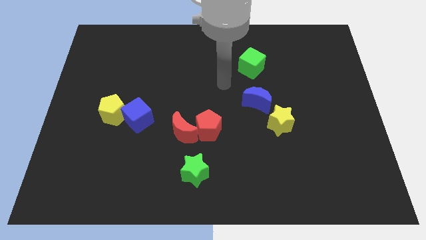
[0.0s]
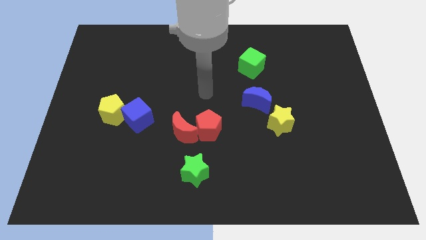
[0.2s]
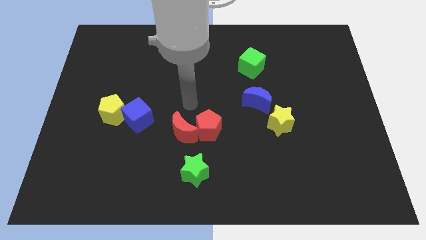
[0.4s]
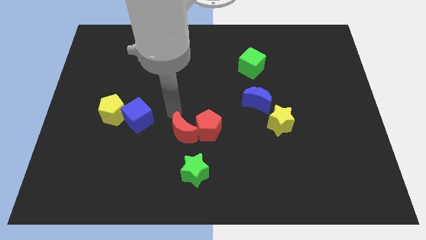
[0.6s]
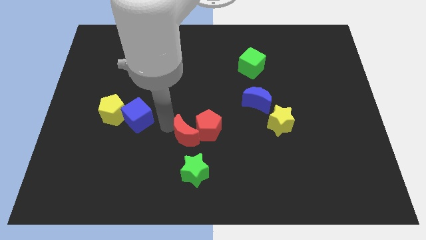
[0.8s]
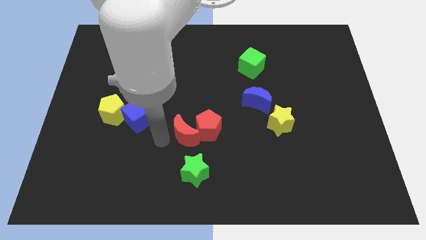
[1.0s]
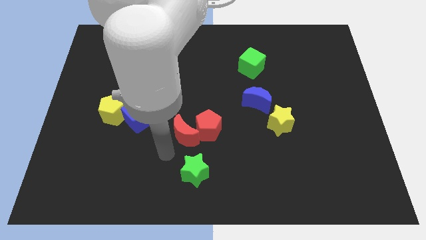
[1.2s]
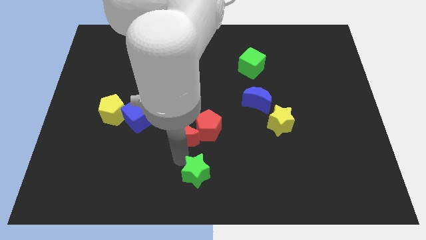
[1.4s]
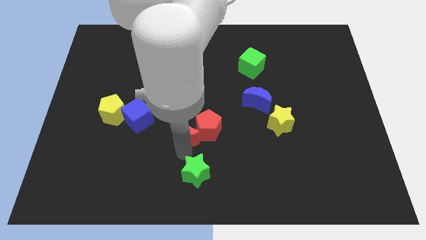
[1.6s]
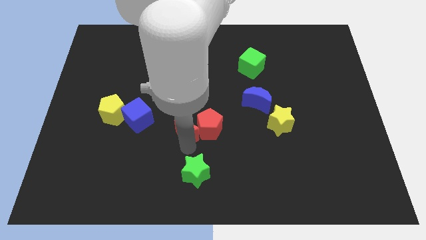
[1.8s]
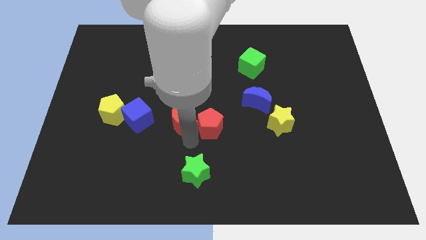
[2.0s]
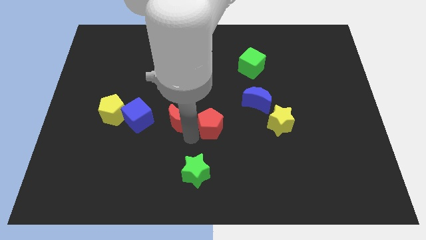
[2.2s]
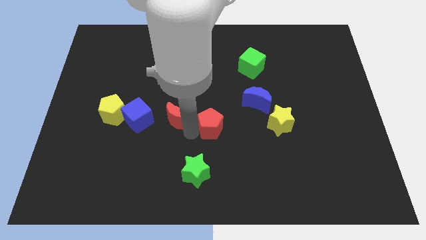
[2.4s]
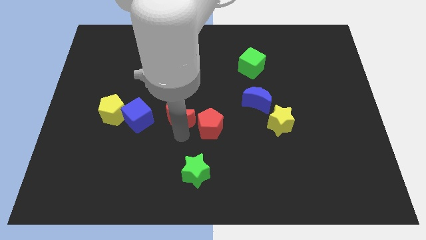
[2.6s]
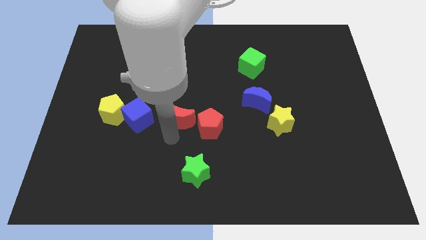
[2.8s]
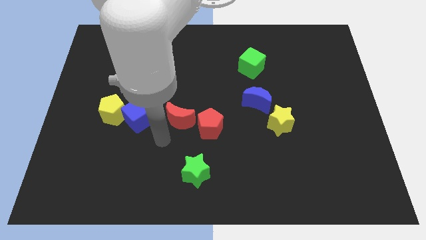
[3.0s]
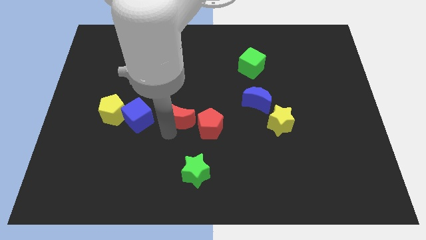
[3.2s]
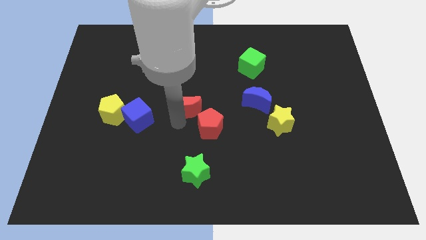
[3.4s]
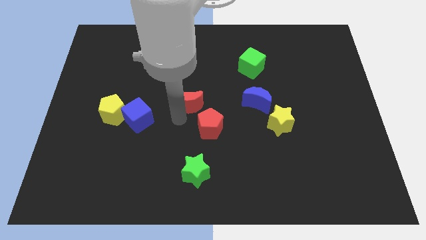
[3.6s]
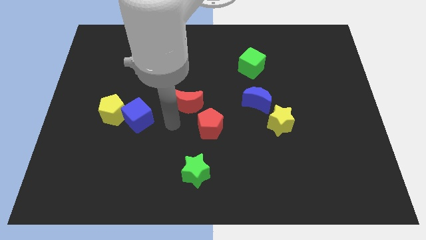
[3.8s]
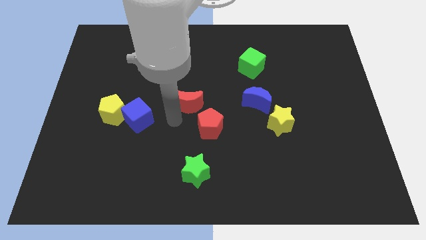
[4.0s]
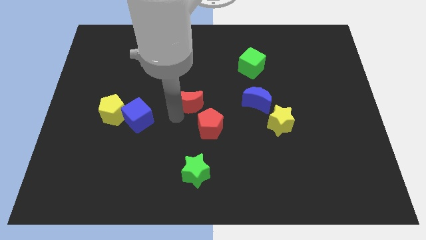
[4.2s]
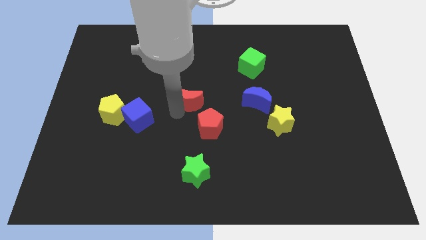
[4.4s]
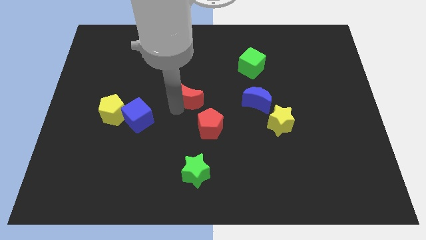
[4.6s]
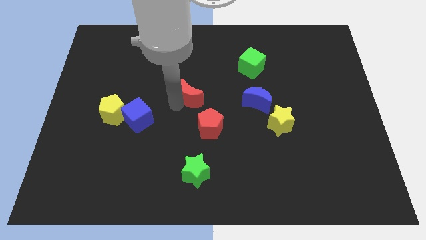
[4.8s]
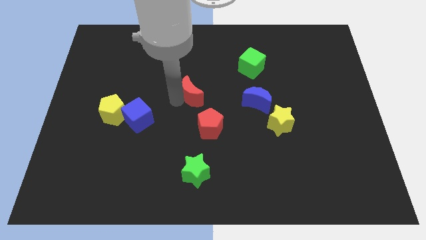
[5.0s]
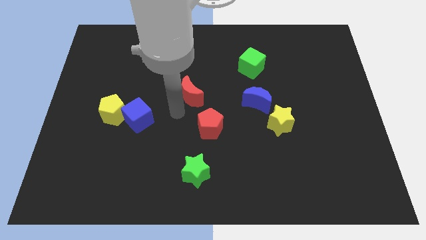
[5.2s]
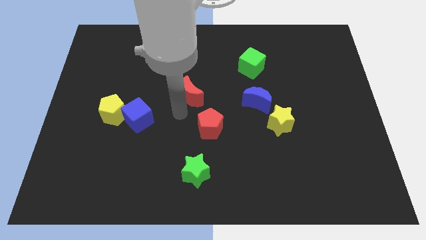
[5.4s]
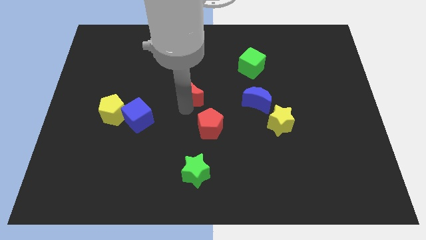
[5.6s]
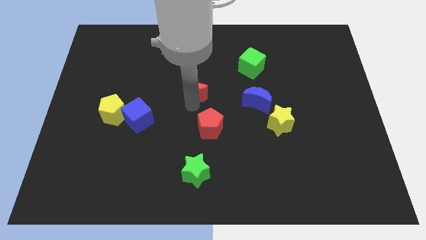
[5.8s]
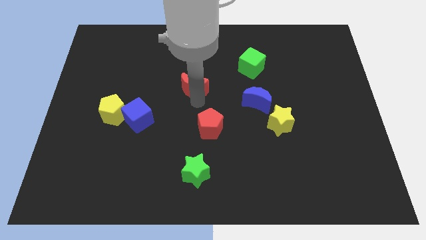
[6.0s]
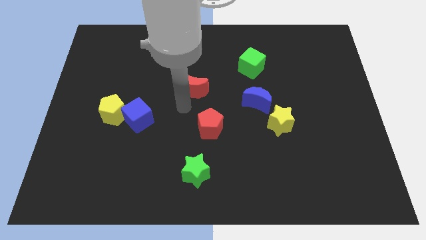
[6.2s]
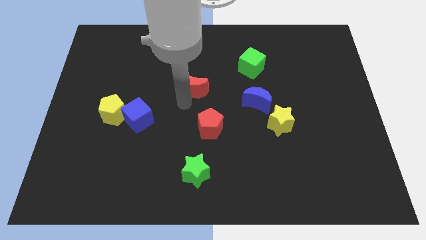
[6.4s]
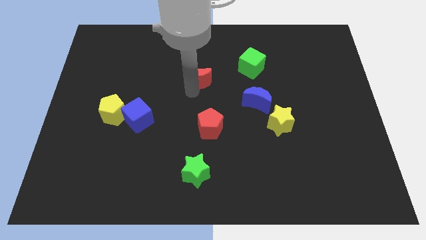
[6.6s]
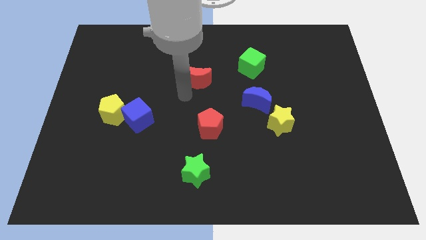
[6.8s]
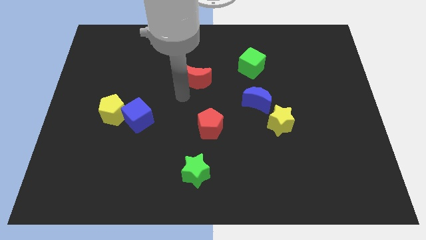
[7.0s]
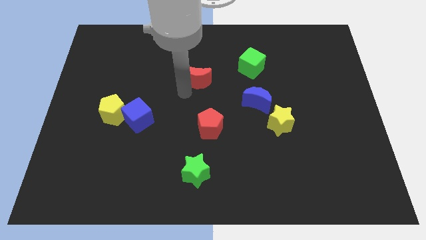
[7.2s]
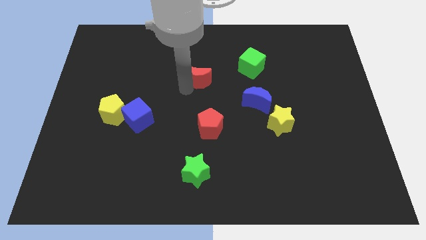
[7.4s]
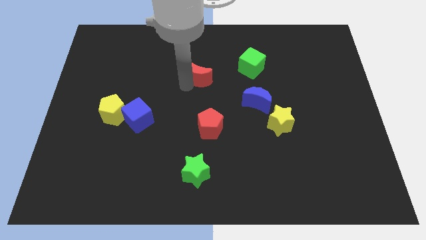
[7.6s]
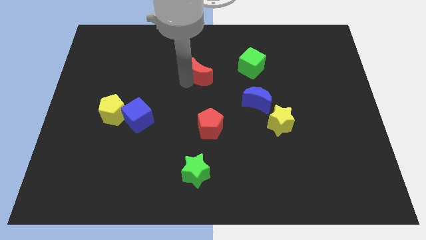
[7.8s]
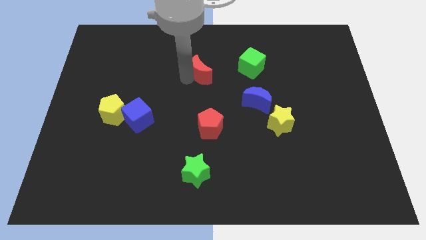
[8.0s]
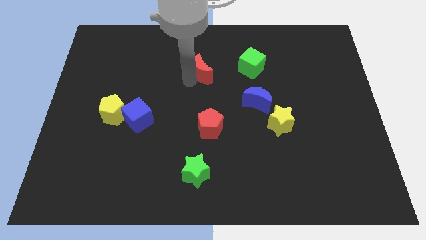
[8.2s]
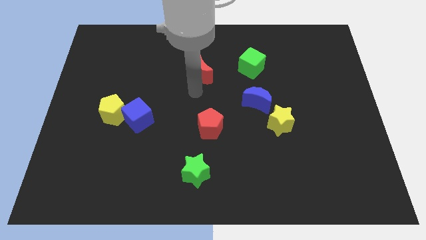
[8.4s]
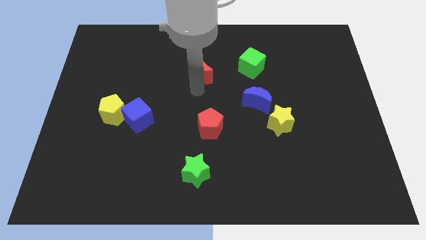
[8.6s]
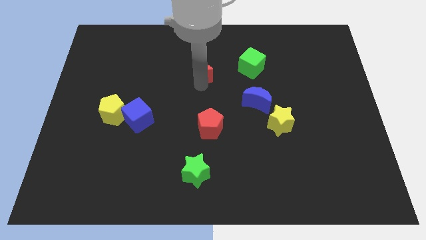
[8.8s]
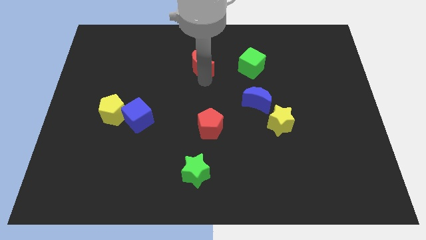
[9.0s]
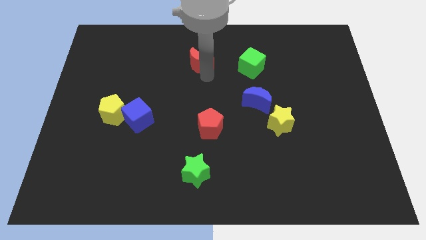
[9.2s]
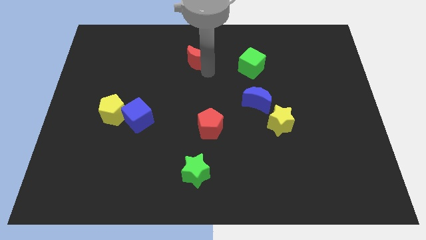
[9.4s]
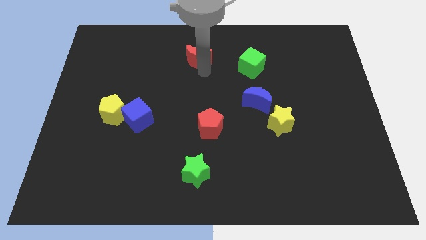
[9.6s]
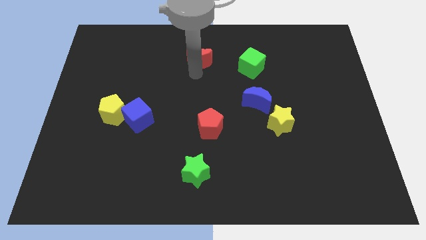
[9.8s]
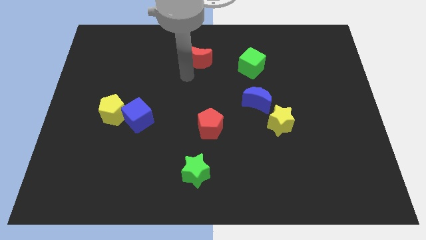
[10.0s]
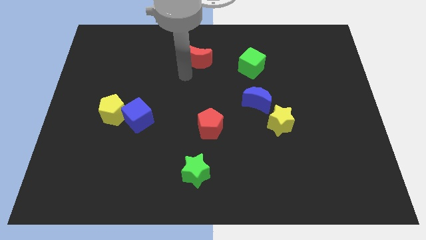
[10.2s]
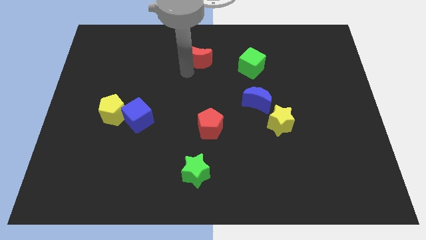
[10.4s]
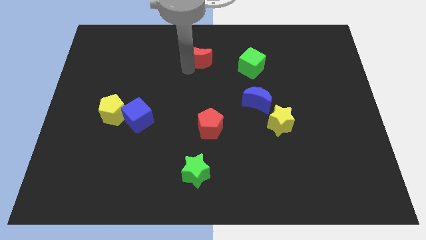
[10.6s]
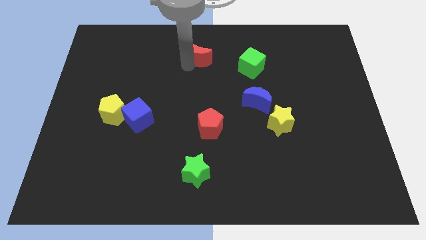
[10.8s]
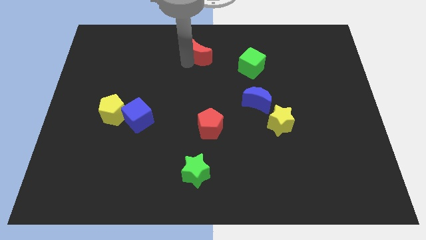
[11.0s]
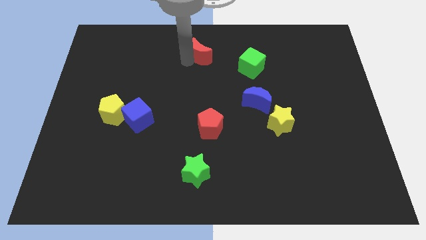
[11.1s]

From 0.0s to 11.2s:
slide the red moon to the towards your base

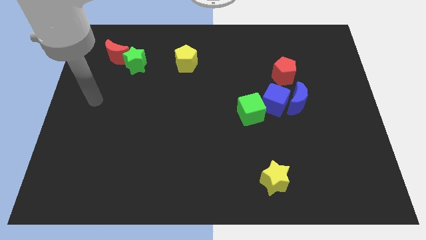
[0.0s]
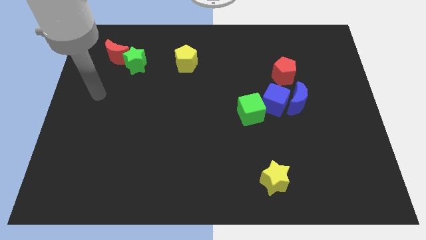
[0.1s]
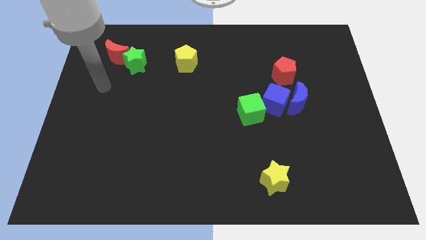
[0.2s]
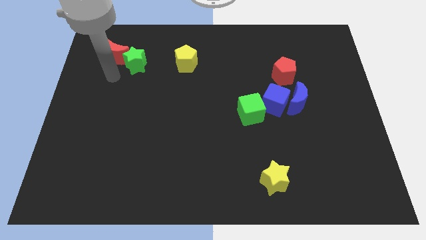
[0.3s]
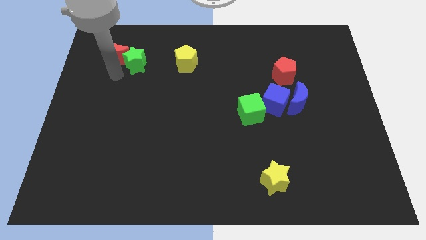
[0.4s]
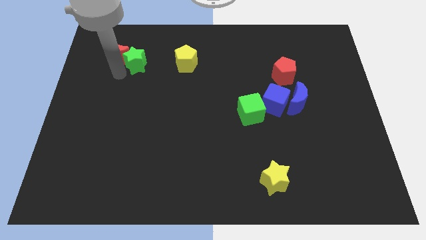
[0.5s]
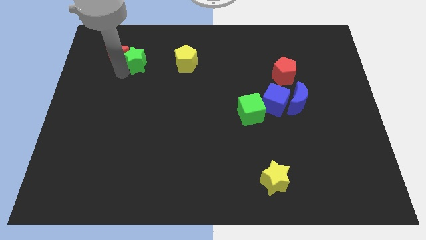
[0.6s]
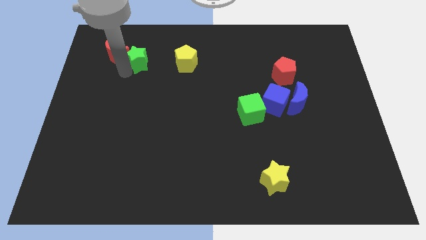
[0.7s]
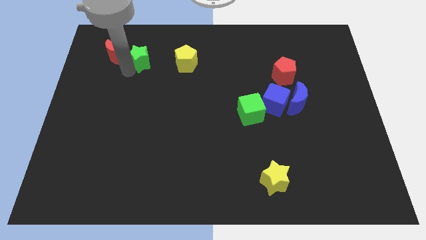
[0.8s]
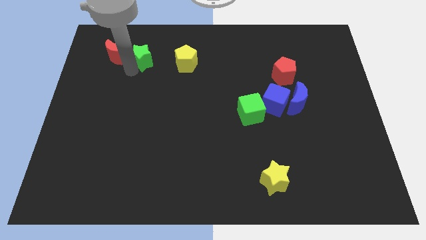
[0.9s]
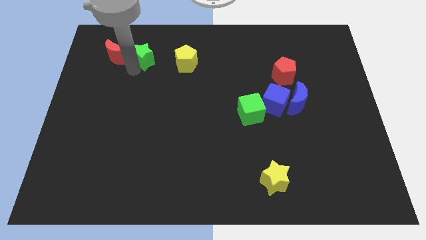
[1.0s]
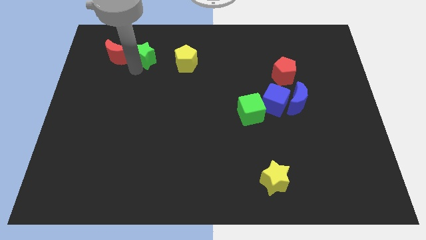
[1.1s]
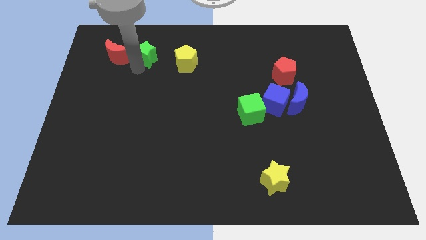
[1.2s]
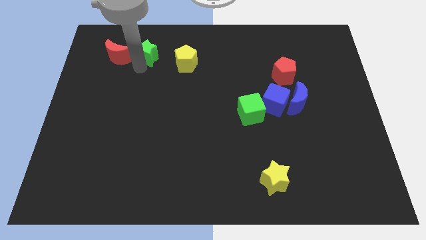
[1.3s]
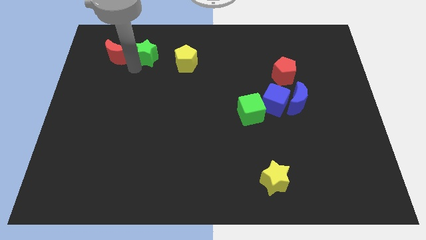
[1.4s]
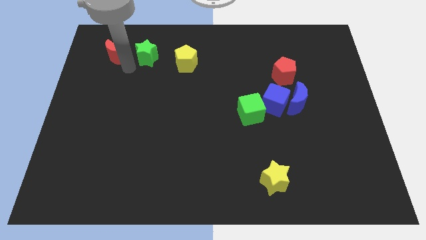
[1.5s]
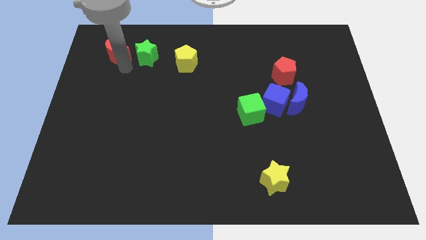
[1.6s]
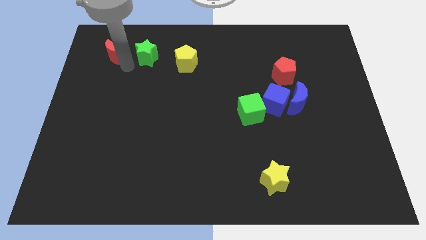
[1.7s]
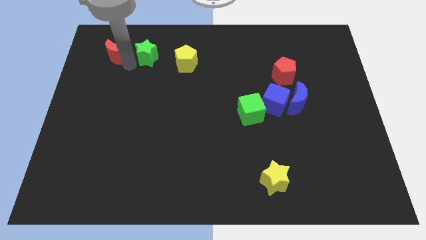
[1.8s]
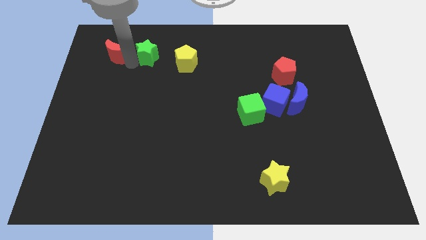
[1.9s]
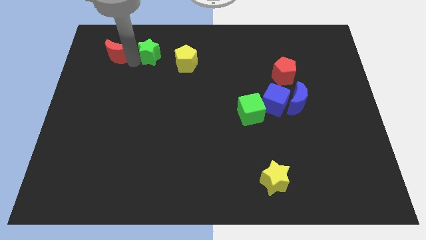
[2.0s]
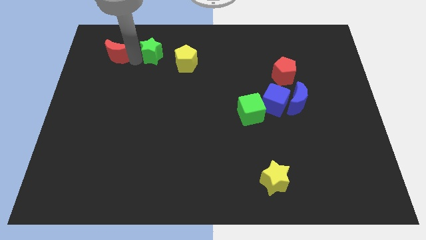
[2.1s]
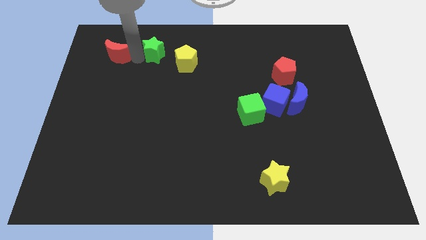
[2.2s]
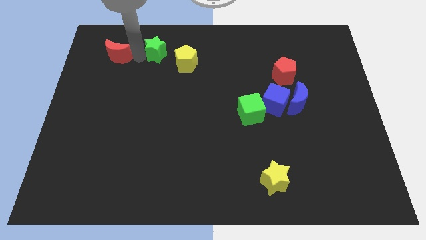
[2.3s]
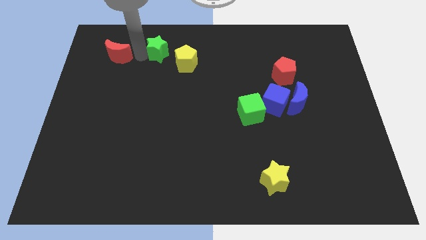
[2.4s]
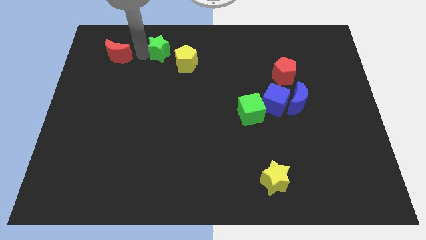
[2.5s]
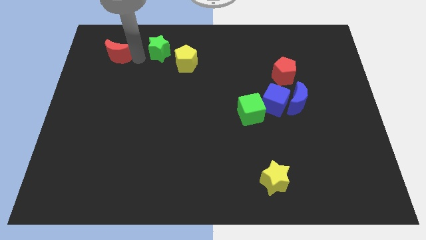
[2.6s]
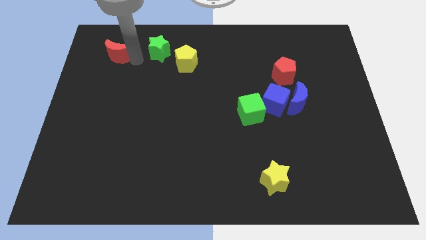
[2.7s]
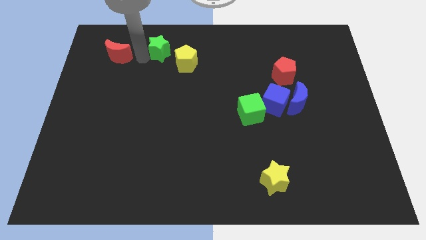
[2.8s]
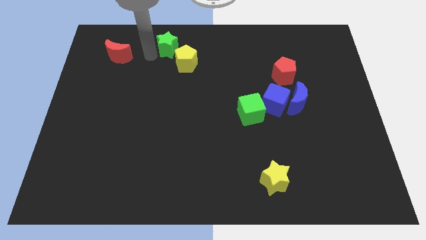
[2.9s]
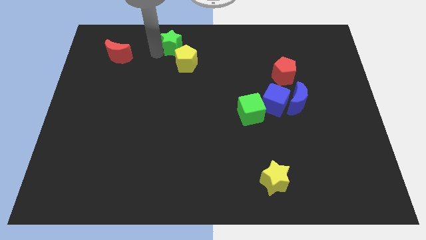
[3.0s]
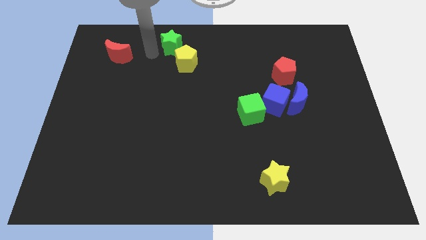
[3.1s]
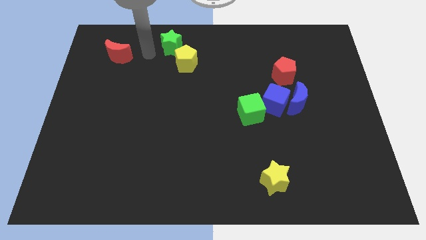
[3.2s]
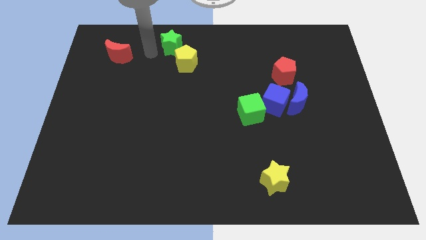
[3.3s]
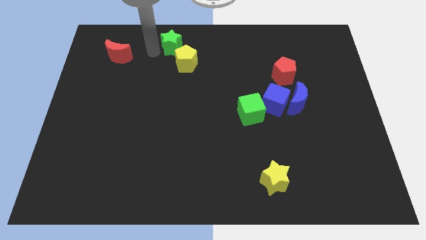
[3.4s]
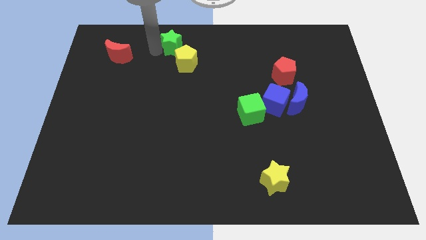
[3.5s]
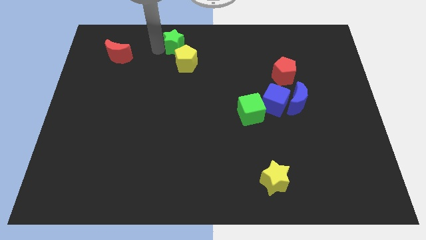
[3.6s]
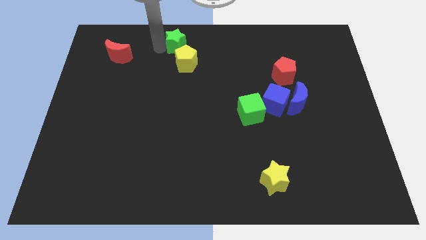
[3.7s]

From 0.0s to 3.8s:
put the green star to the towards your base
